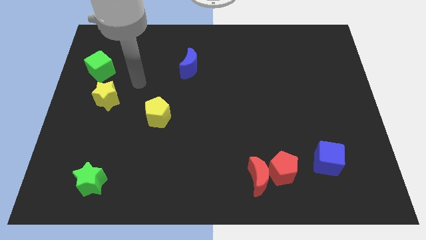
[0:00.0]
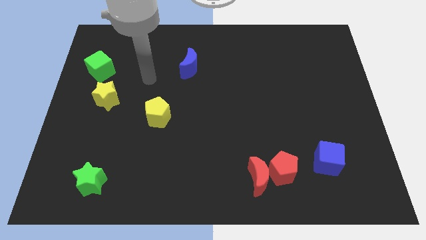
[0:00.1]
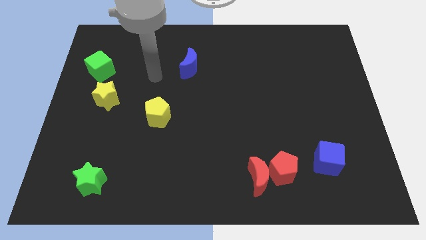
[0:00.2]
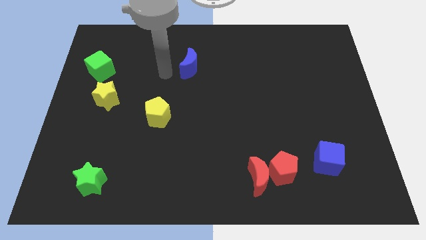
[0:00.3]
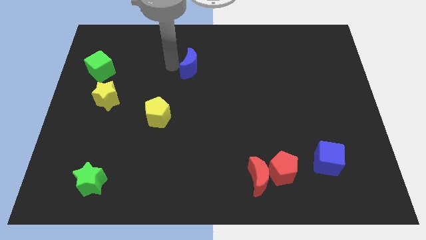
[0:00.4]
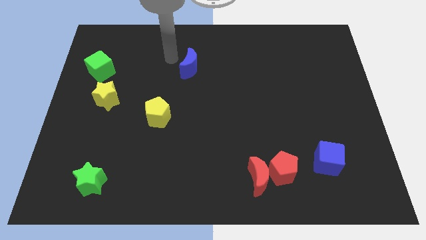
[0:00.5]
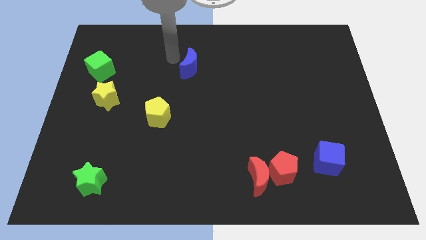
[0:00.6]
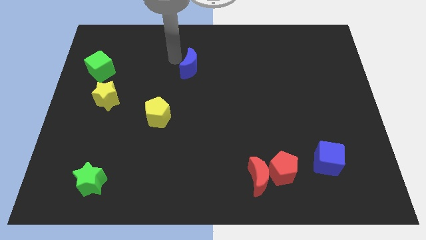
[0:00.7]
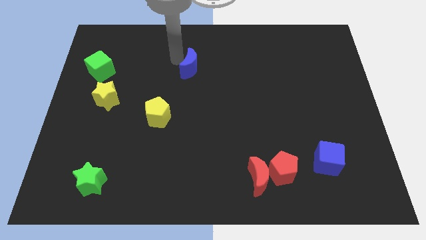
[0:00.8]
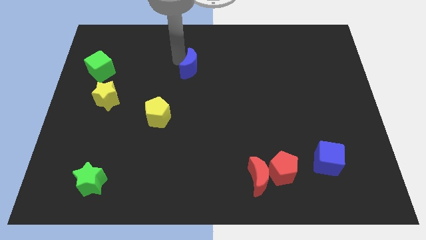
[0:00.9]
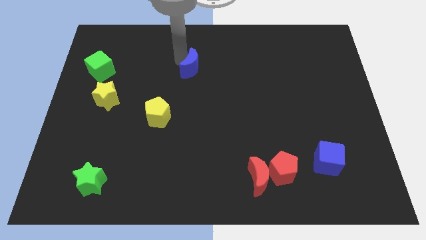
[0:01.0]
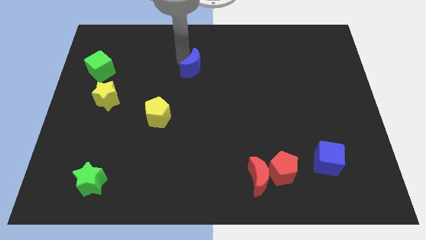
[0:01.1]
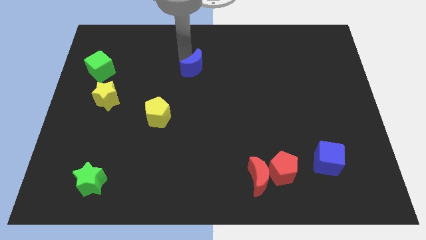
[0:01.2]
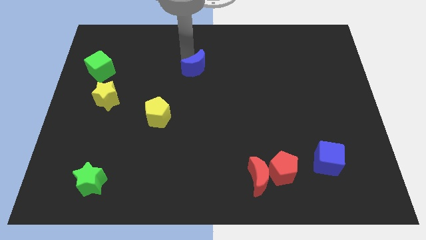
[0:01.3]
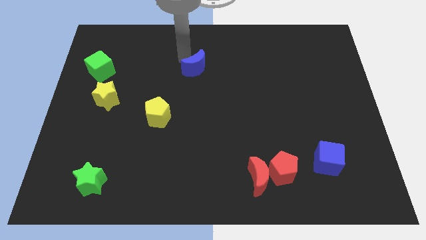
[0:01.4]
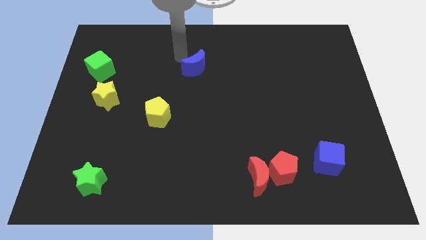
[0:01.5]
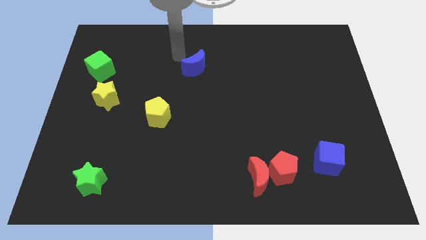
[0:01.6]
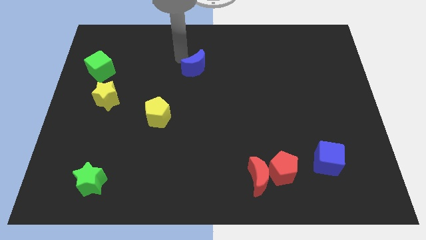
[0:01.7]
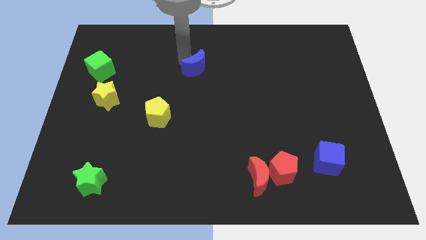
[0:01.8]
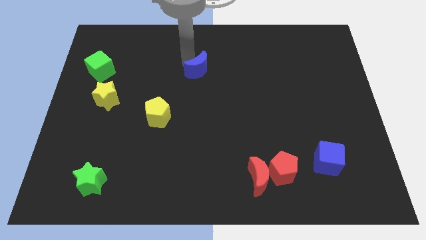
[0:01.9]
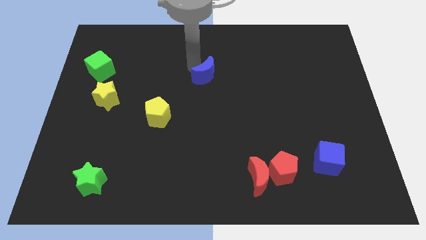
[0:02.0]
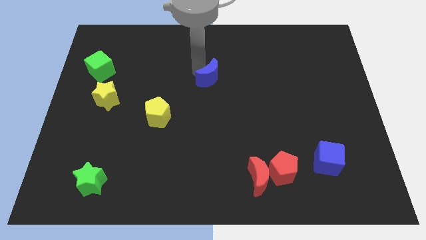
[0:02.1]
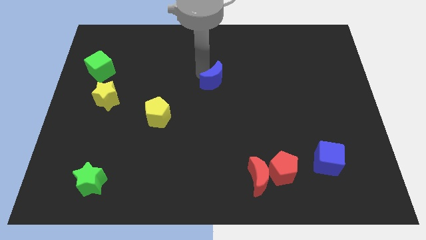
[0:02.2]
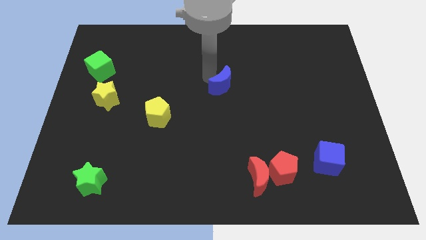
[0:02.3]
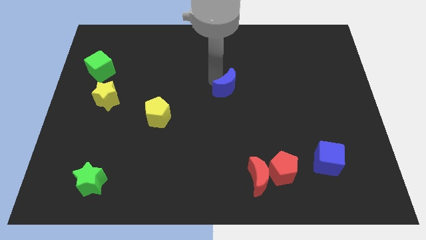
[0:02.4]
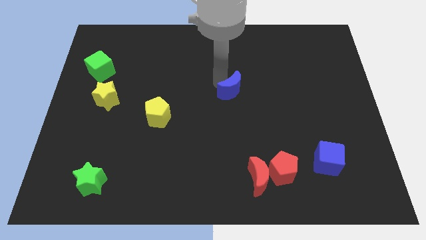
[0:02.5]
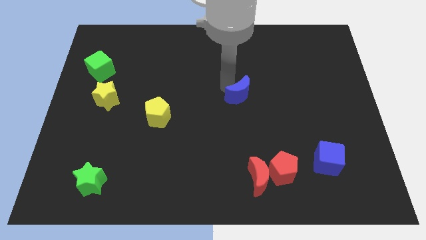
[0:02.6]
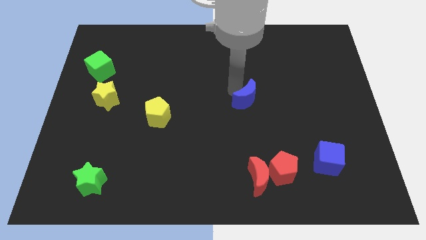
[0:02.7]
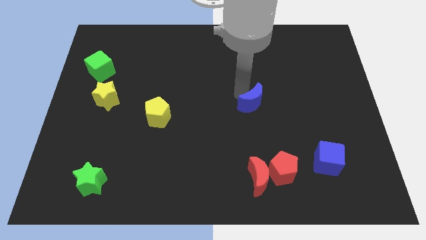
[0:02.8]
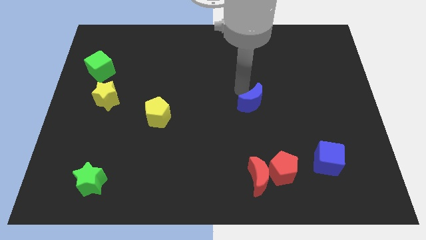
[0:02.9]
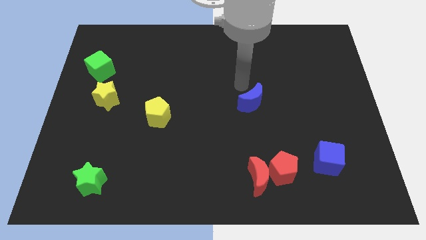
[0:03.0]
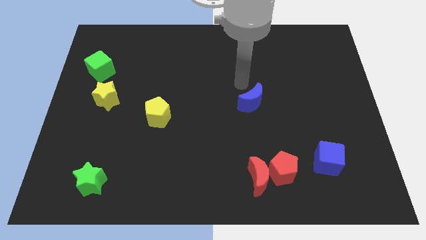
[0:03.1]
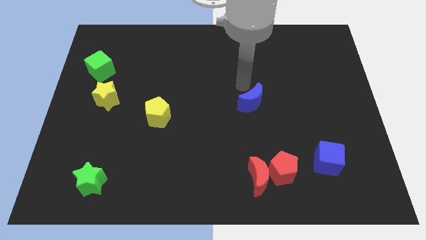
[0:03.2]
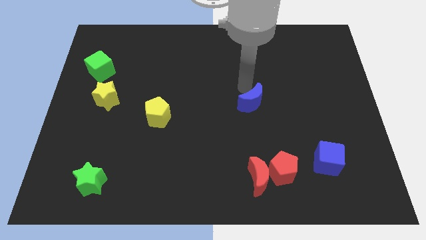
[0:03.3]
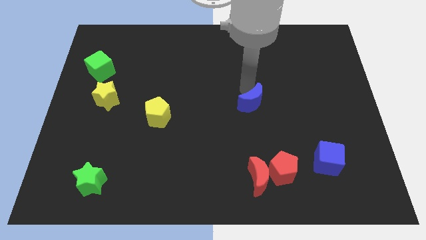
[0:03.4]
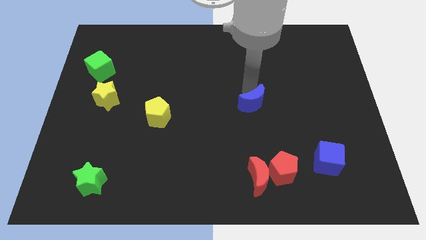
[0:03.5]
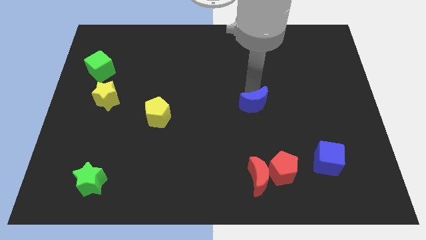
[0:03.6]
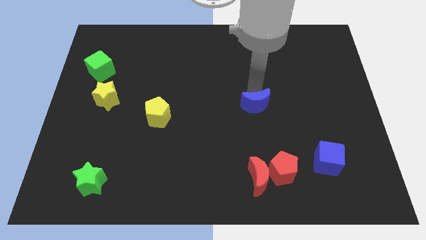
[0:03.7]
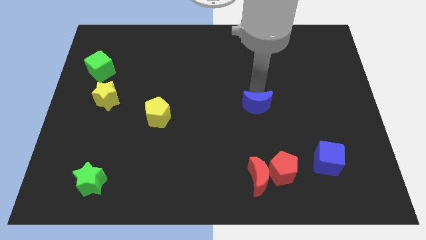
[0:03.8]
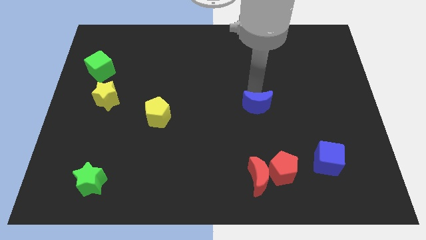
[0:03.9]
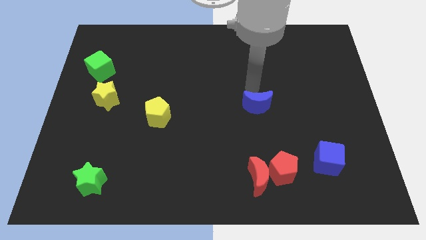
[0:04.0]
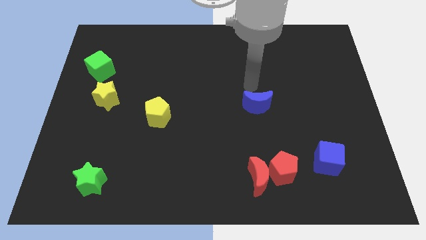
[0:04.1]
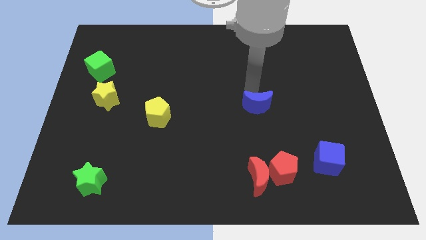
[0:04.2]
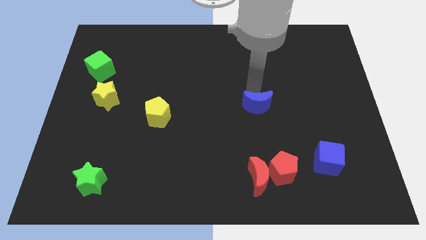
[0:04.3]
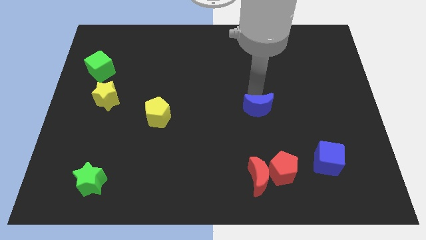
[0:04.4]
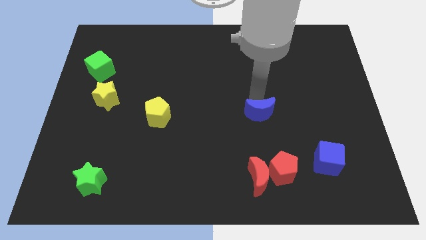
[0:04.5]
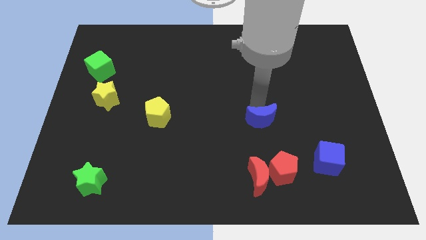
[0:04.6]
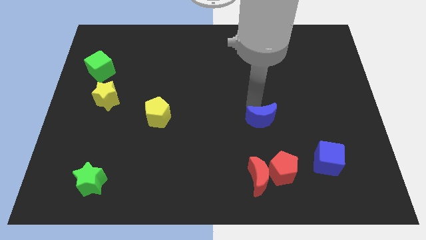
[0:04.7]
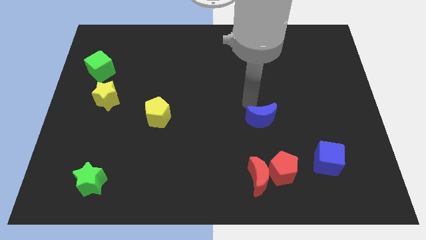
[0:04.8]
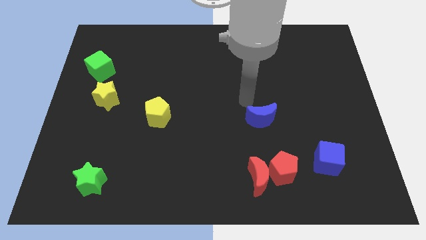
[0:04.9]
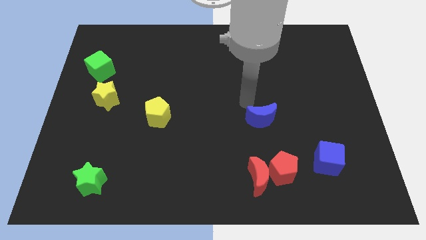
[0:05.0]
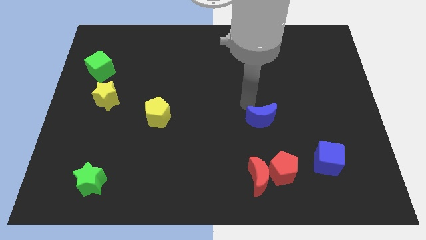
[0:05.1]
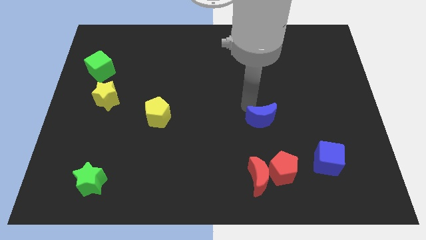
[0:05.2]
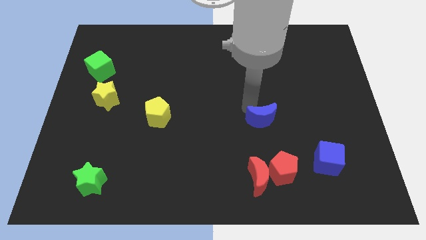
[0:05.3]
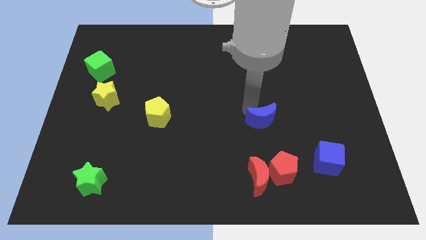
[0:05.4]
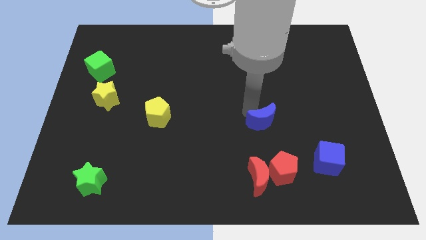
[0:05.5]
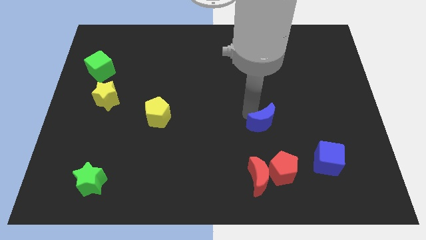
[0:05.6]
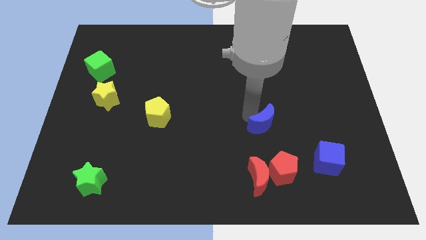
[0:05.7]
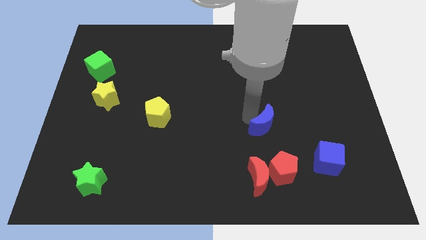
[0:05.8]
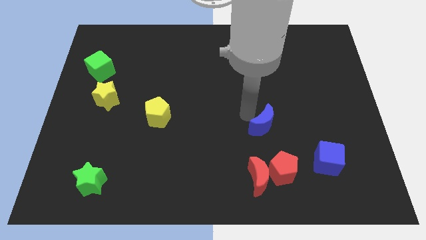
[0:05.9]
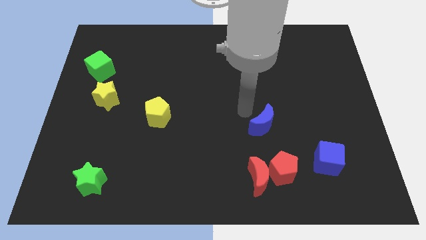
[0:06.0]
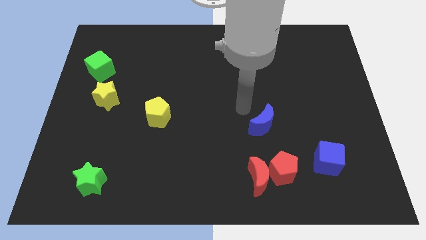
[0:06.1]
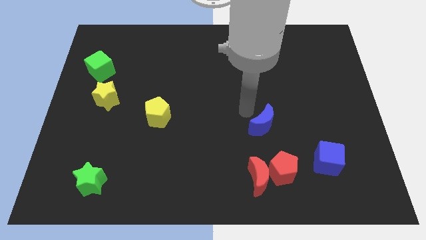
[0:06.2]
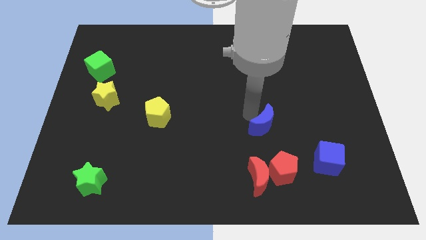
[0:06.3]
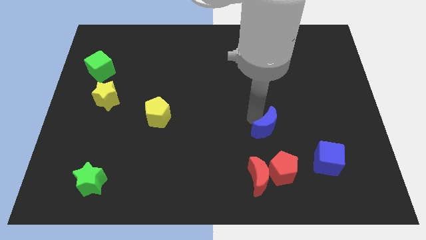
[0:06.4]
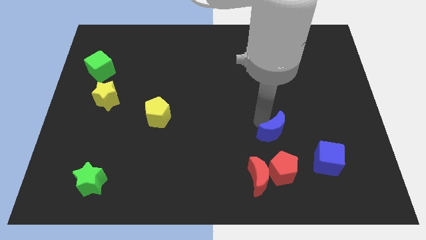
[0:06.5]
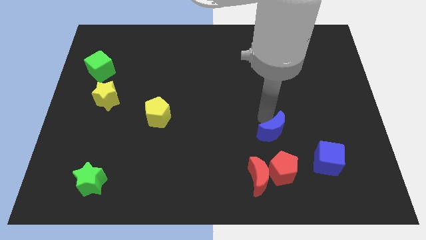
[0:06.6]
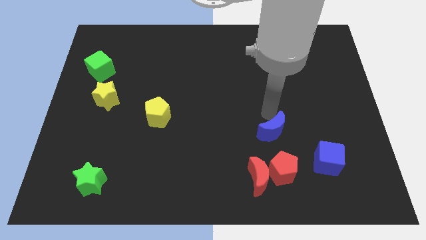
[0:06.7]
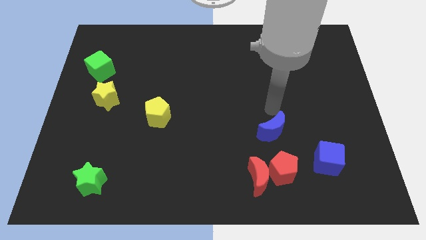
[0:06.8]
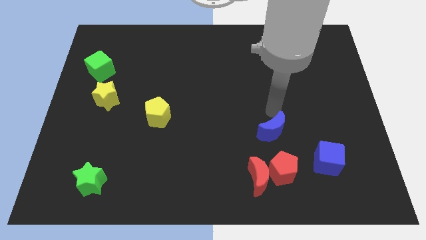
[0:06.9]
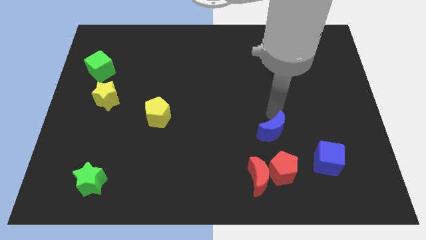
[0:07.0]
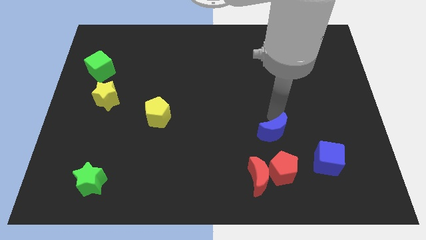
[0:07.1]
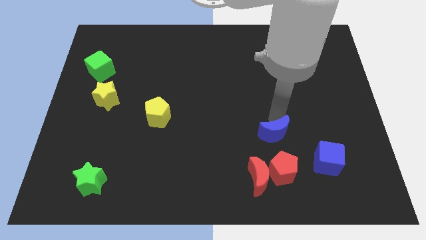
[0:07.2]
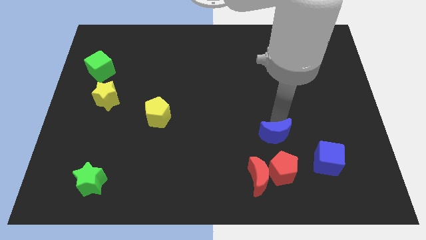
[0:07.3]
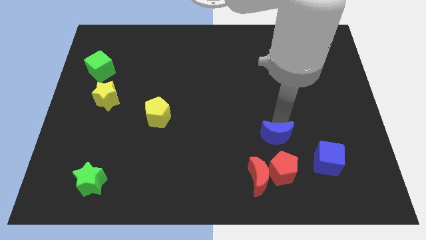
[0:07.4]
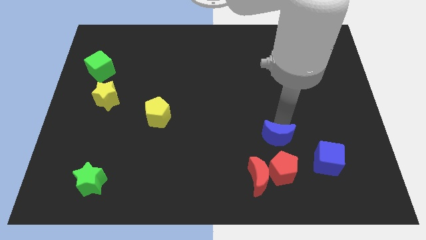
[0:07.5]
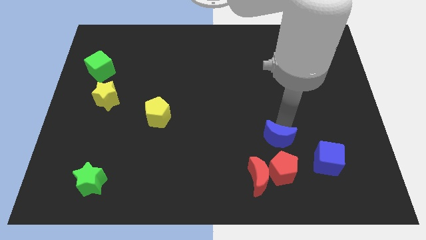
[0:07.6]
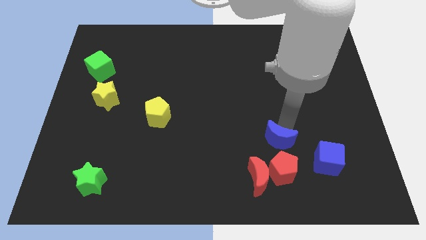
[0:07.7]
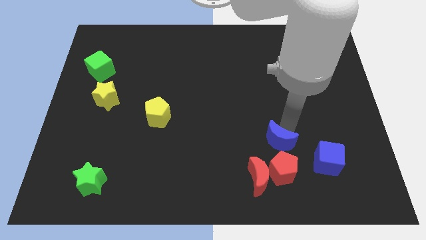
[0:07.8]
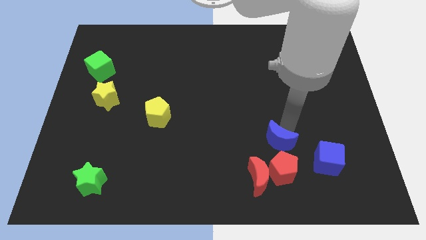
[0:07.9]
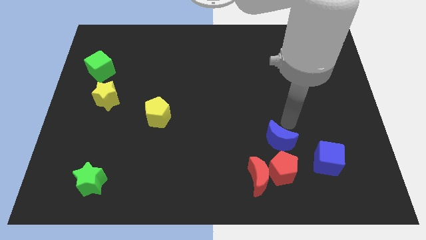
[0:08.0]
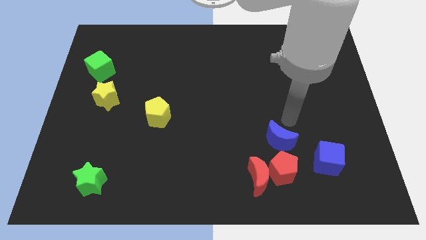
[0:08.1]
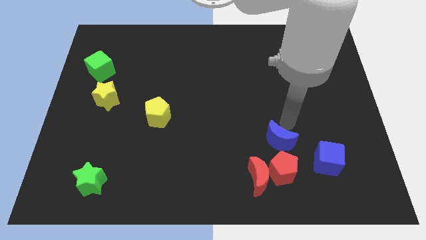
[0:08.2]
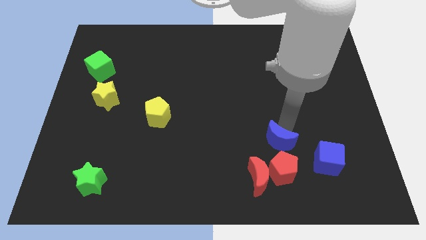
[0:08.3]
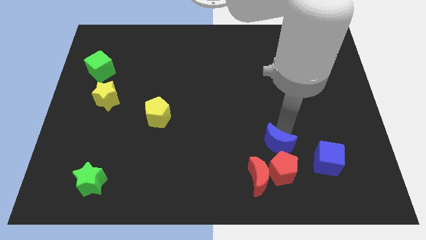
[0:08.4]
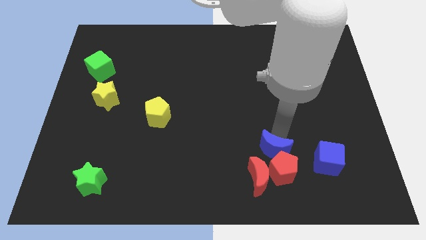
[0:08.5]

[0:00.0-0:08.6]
push the blue moon next to the red pentagon
